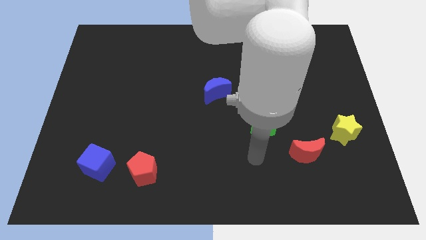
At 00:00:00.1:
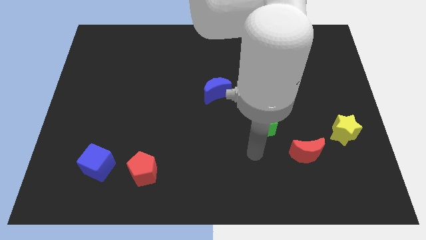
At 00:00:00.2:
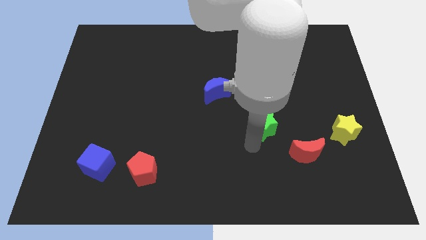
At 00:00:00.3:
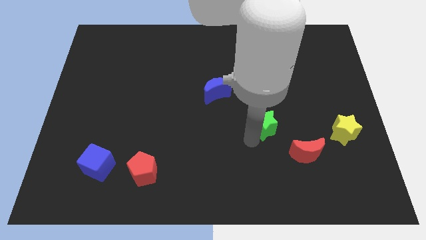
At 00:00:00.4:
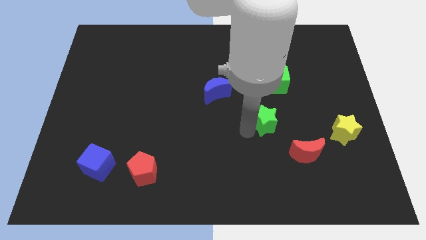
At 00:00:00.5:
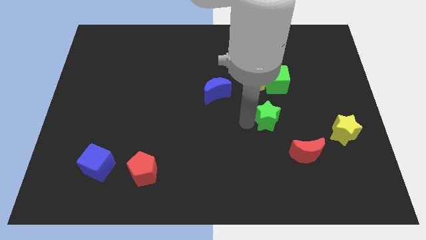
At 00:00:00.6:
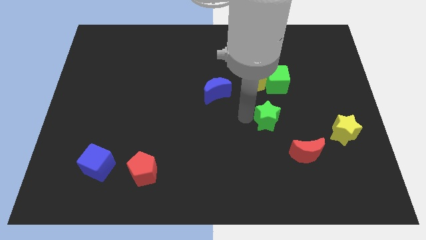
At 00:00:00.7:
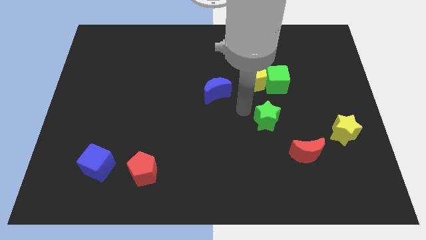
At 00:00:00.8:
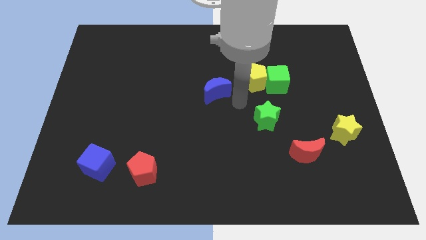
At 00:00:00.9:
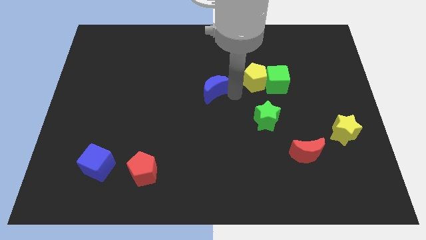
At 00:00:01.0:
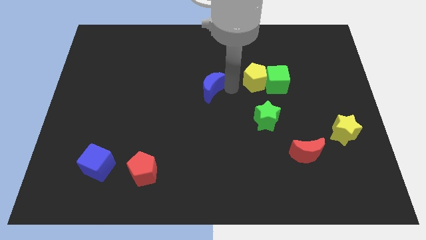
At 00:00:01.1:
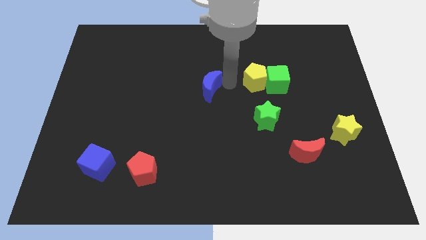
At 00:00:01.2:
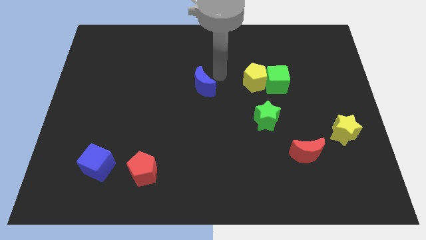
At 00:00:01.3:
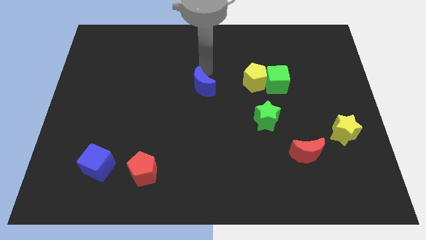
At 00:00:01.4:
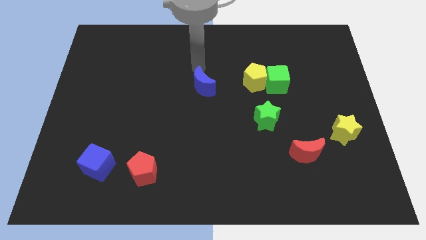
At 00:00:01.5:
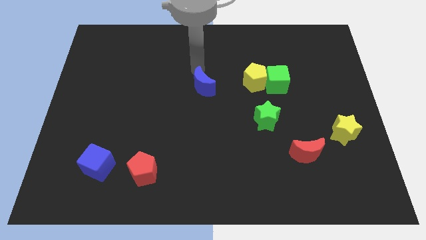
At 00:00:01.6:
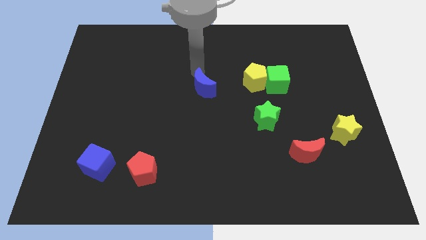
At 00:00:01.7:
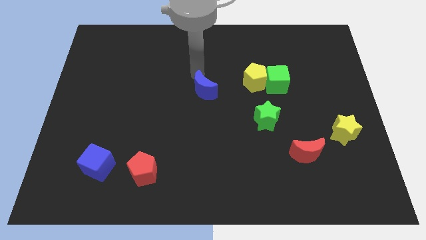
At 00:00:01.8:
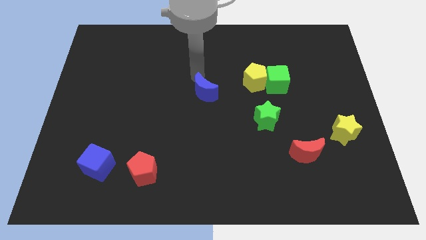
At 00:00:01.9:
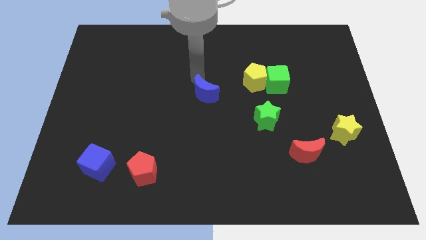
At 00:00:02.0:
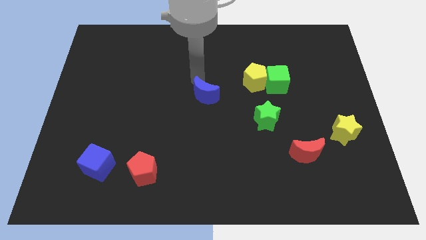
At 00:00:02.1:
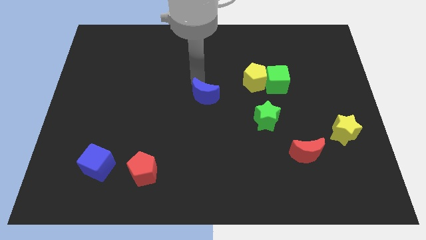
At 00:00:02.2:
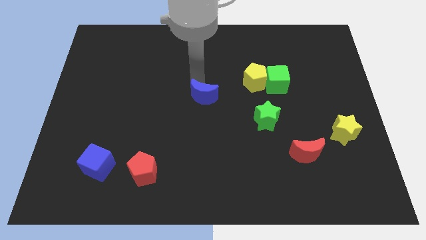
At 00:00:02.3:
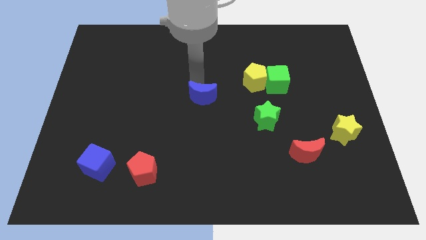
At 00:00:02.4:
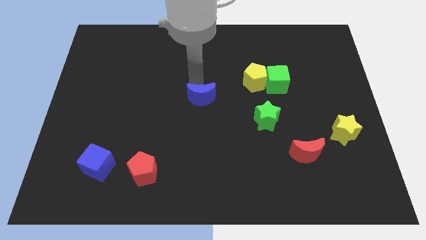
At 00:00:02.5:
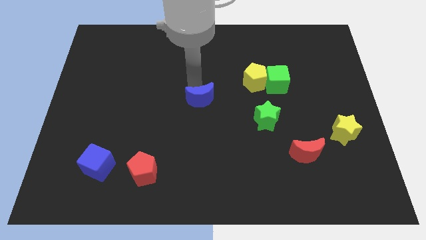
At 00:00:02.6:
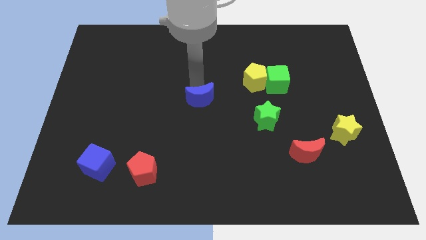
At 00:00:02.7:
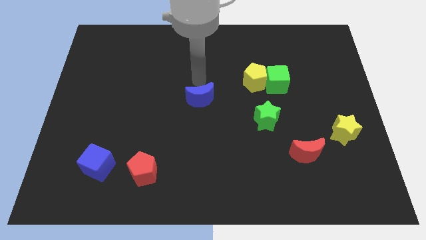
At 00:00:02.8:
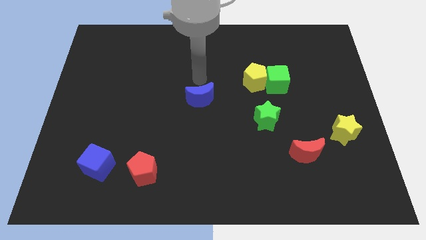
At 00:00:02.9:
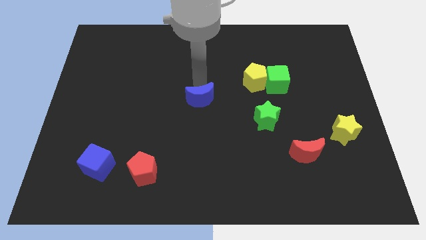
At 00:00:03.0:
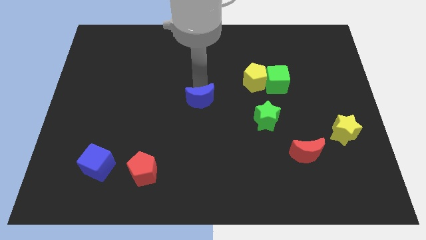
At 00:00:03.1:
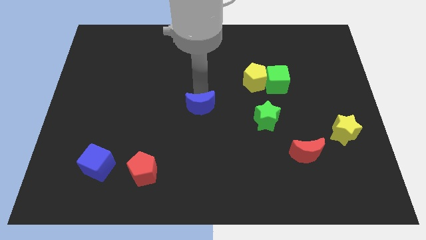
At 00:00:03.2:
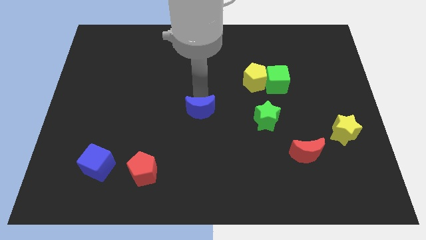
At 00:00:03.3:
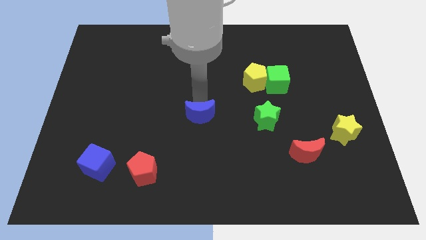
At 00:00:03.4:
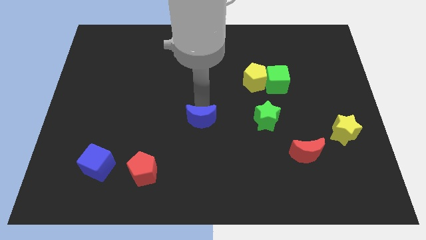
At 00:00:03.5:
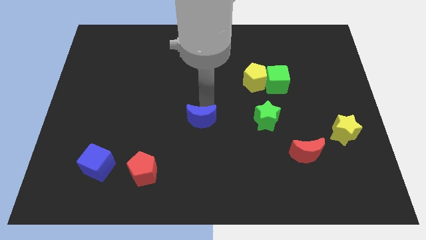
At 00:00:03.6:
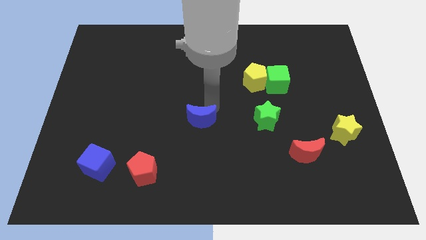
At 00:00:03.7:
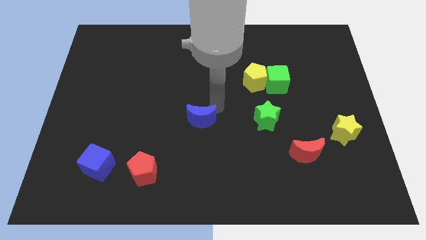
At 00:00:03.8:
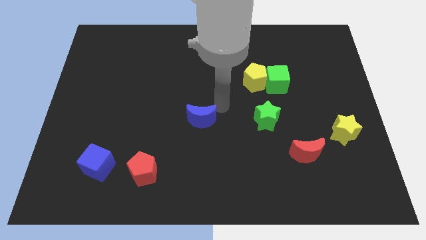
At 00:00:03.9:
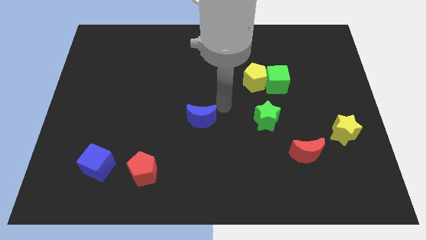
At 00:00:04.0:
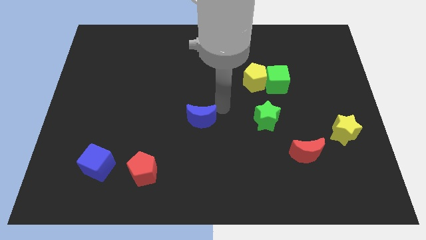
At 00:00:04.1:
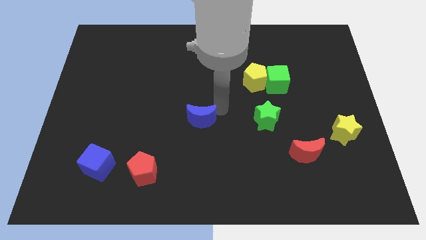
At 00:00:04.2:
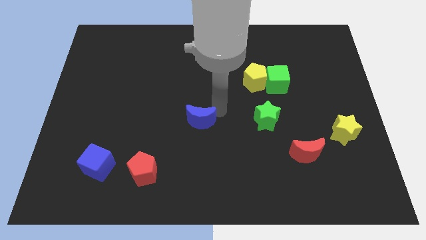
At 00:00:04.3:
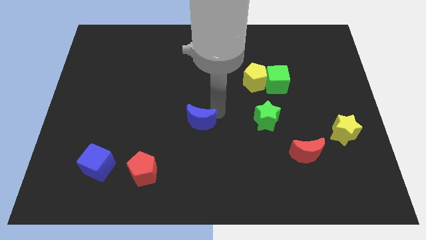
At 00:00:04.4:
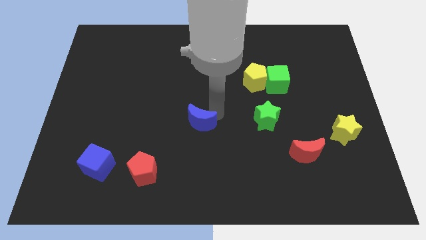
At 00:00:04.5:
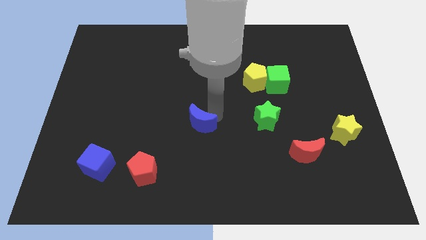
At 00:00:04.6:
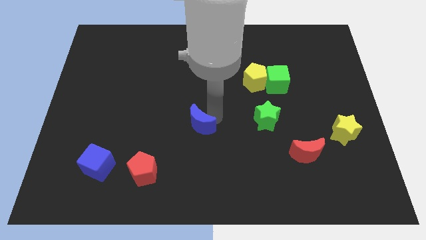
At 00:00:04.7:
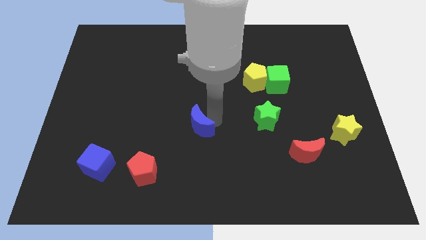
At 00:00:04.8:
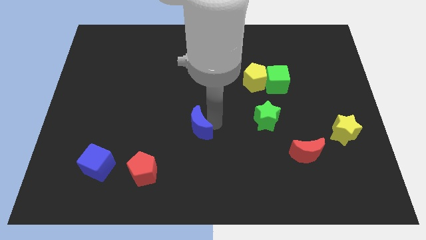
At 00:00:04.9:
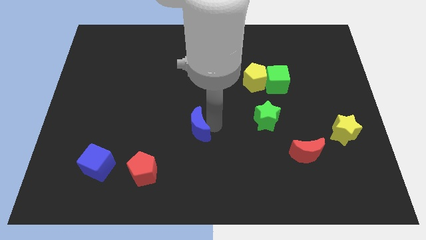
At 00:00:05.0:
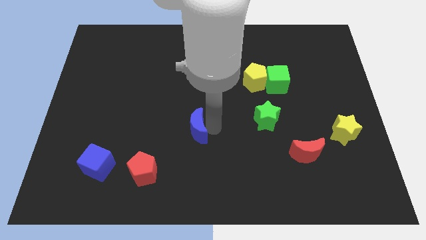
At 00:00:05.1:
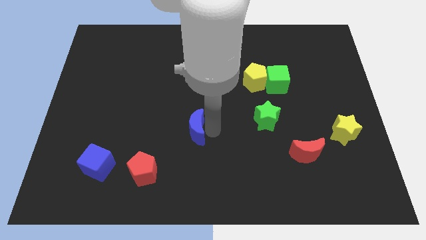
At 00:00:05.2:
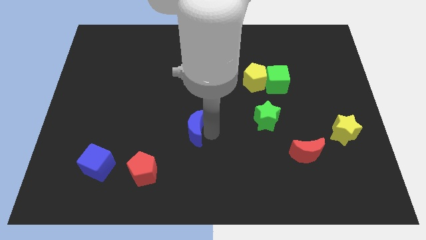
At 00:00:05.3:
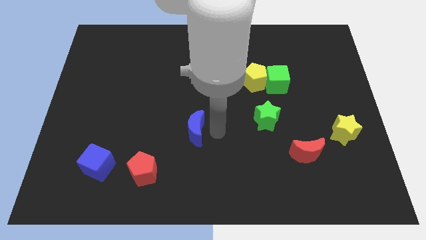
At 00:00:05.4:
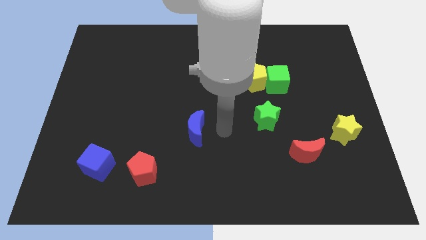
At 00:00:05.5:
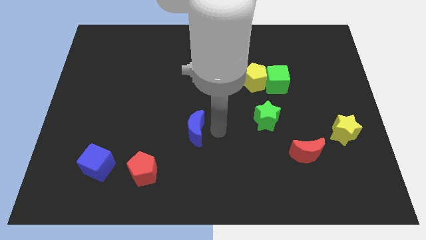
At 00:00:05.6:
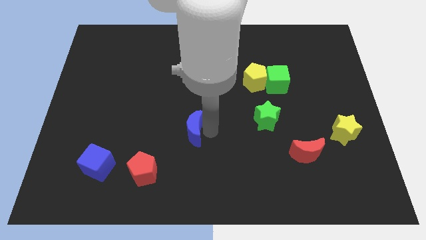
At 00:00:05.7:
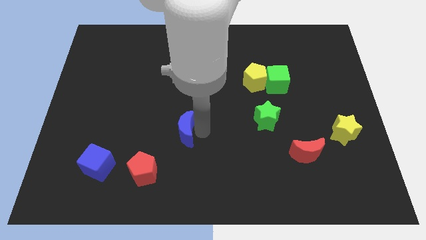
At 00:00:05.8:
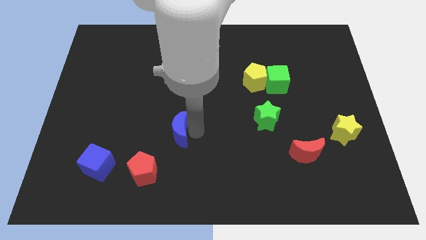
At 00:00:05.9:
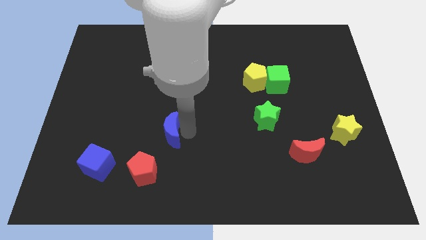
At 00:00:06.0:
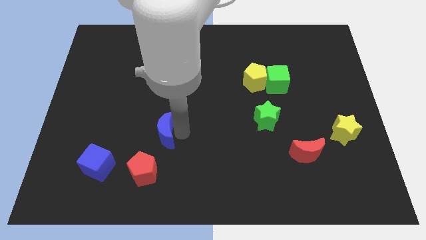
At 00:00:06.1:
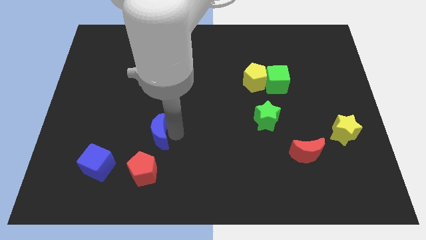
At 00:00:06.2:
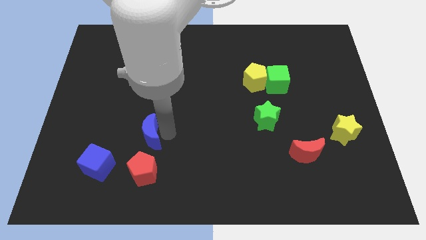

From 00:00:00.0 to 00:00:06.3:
push the blue moon to the top right of the blue cube
